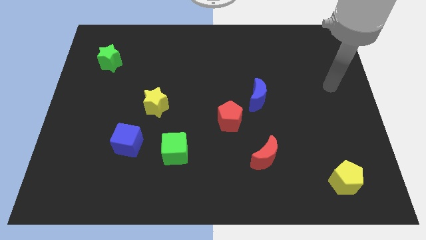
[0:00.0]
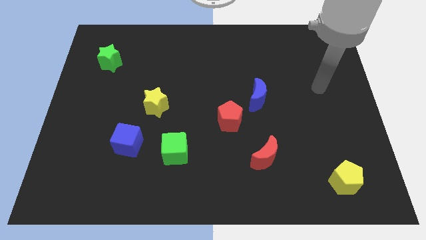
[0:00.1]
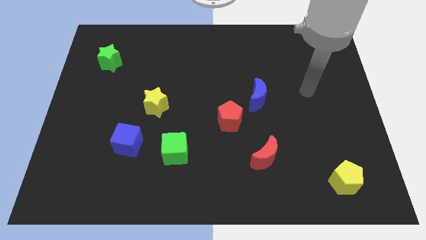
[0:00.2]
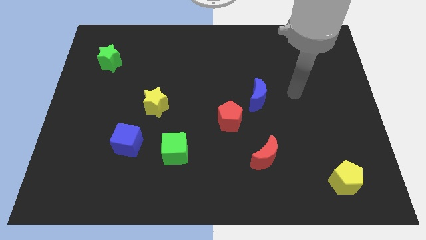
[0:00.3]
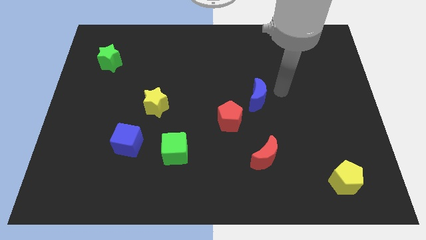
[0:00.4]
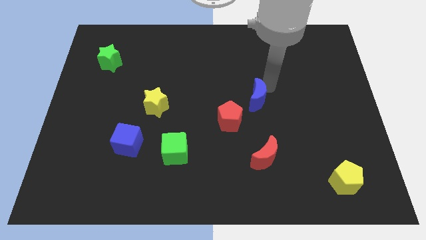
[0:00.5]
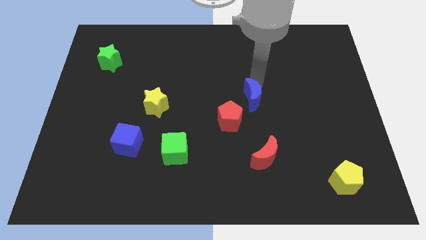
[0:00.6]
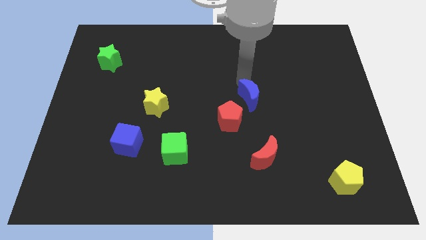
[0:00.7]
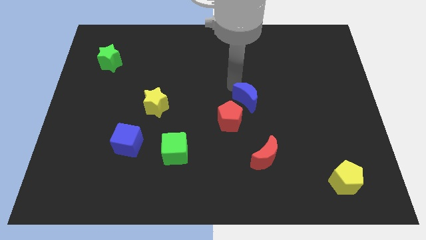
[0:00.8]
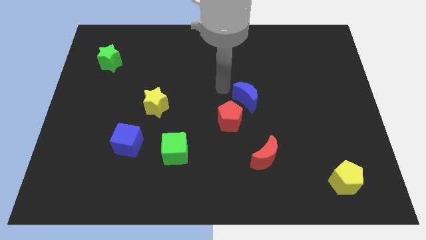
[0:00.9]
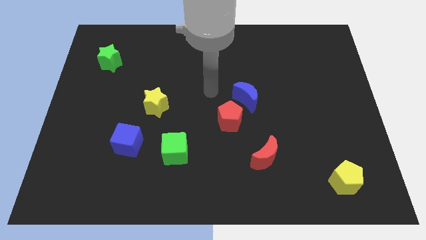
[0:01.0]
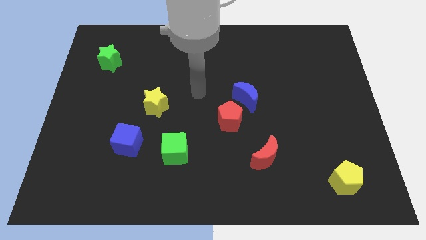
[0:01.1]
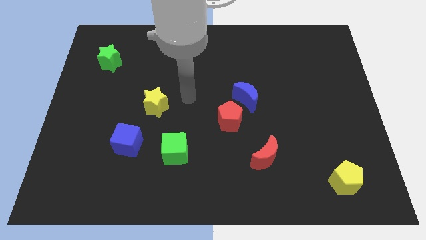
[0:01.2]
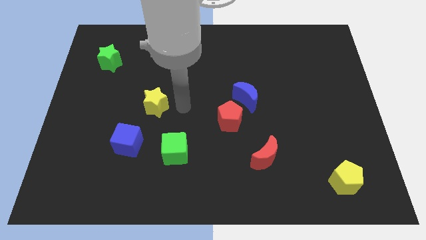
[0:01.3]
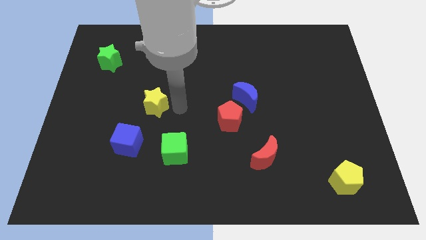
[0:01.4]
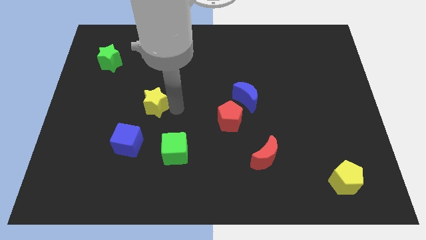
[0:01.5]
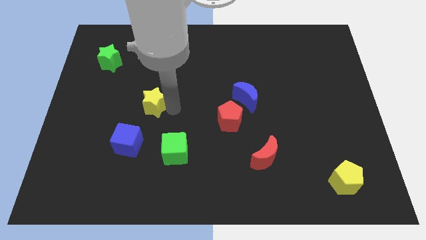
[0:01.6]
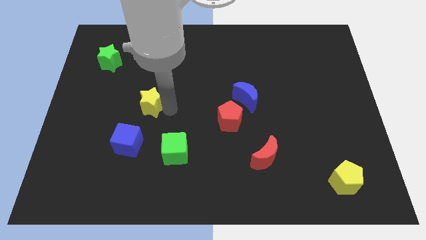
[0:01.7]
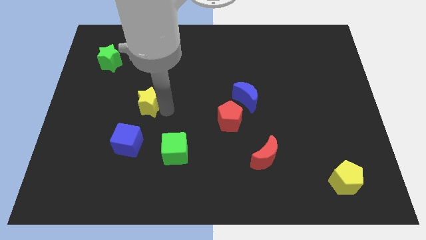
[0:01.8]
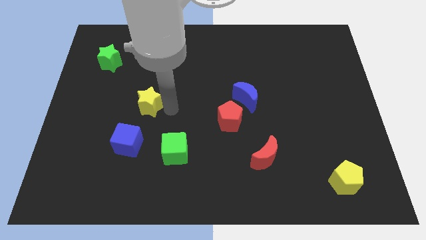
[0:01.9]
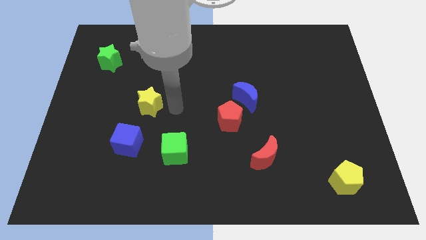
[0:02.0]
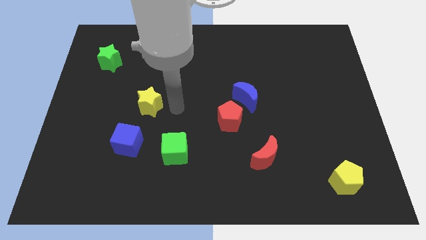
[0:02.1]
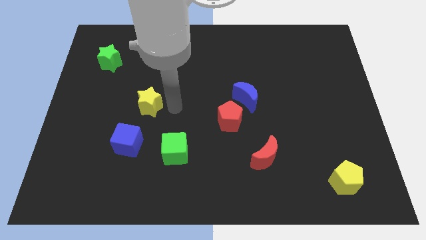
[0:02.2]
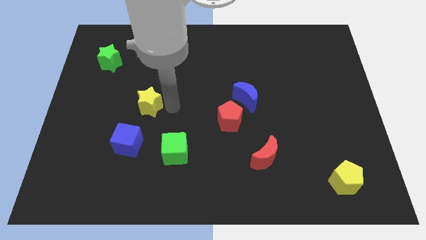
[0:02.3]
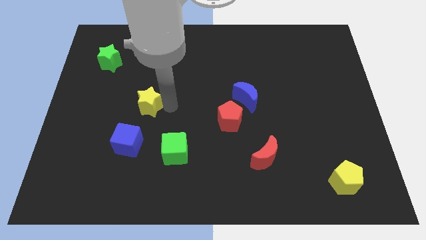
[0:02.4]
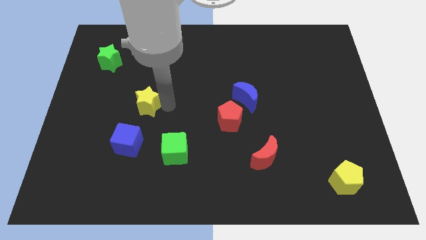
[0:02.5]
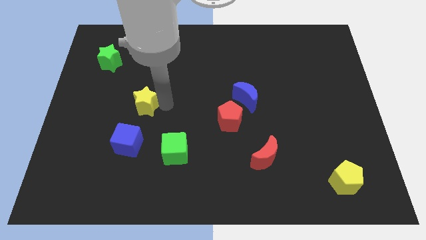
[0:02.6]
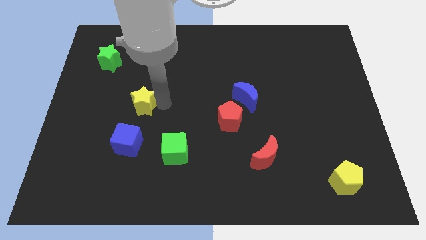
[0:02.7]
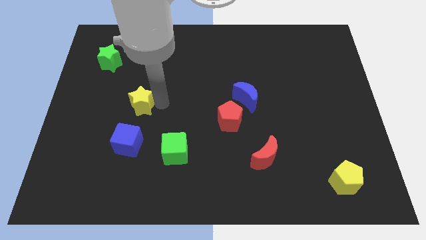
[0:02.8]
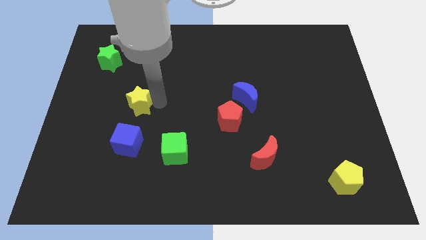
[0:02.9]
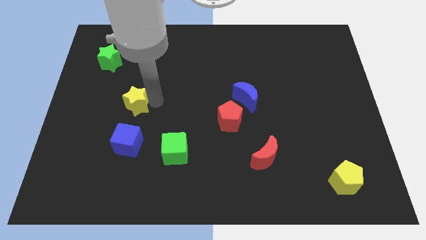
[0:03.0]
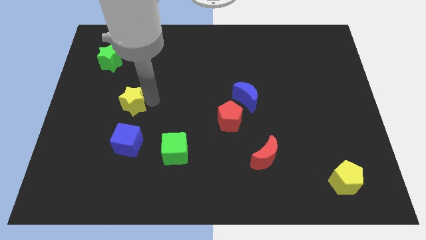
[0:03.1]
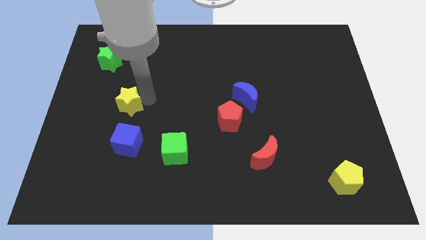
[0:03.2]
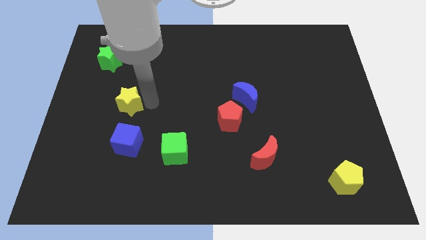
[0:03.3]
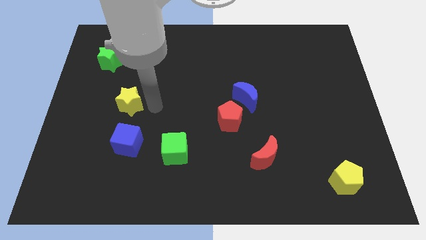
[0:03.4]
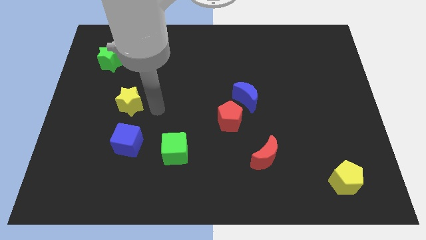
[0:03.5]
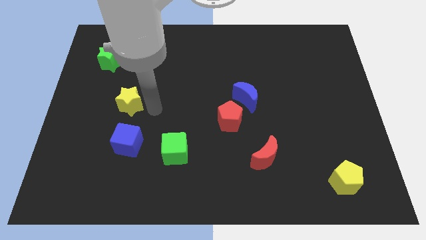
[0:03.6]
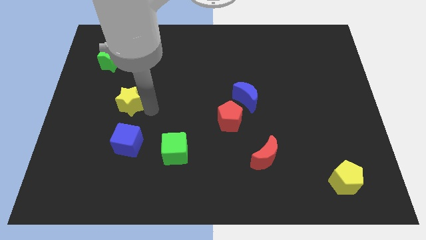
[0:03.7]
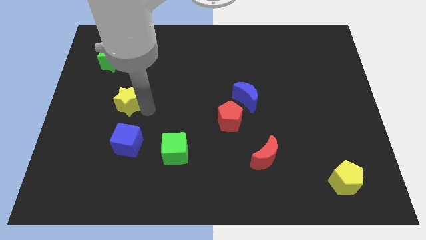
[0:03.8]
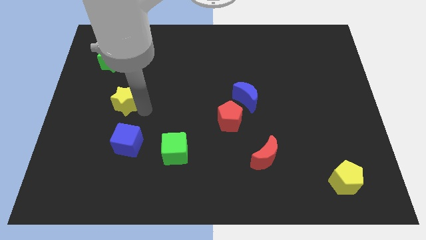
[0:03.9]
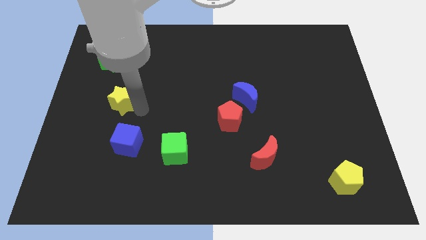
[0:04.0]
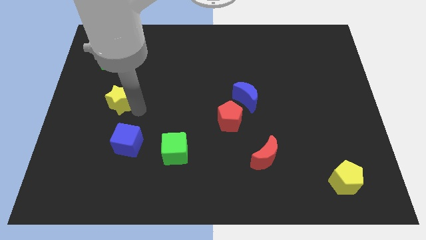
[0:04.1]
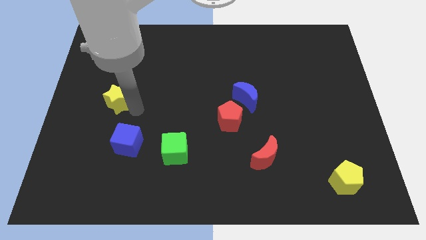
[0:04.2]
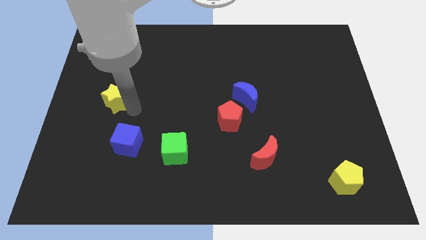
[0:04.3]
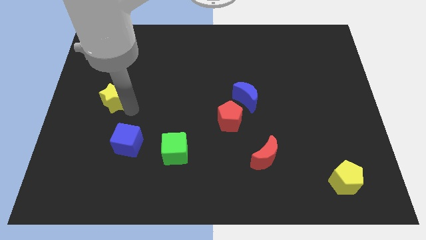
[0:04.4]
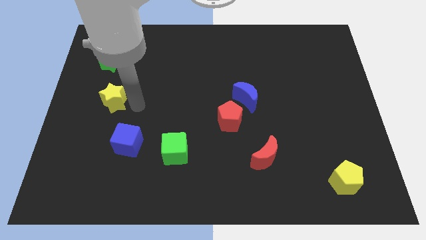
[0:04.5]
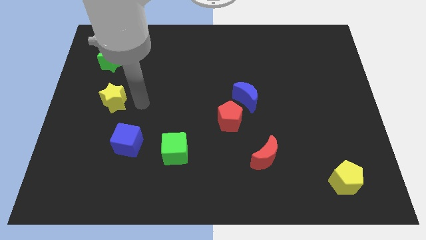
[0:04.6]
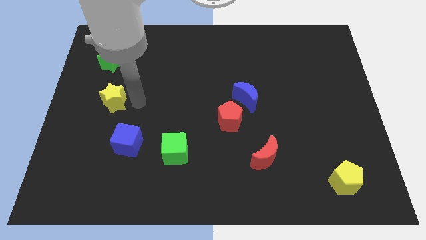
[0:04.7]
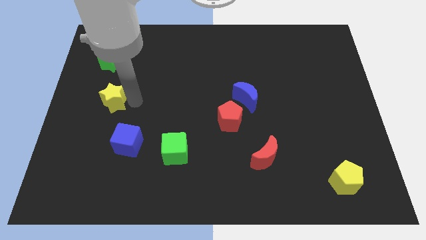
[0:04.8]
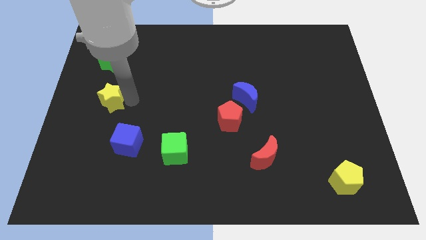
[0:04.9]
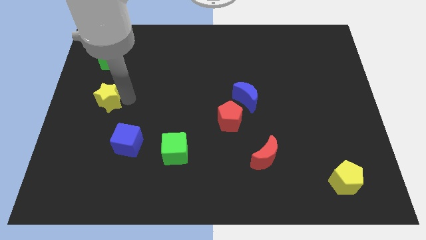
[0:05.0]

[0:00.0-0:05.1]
put the yellow star to the center left

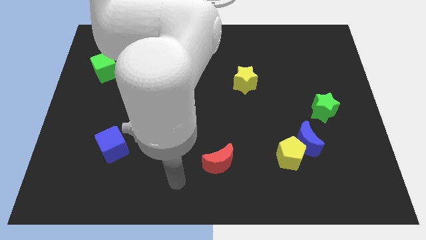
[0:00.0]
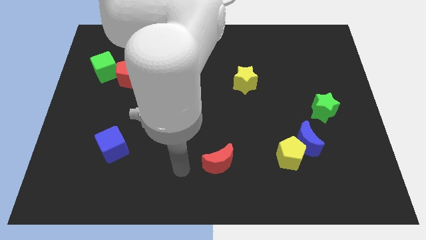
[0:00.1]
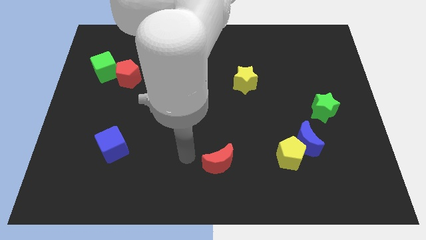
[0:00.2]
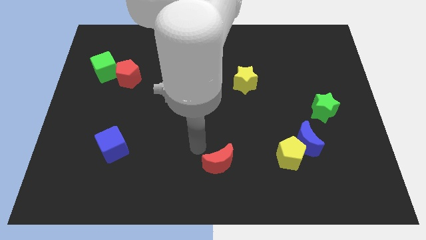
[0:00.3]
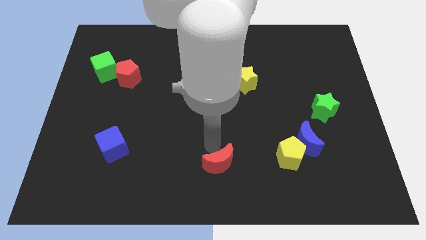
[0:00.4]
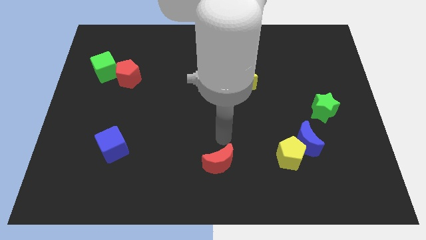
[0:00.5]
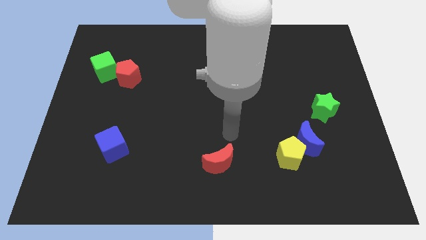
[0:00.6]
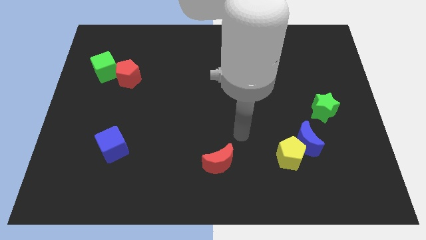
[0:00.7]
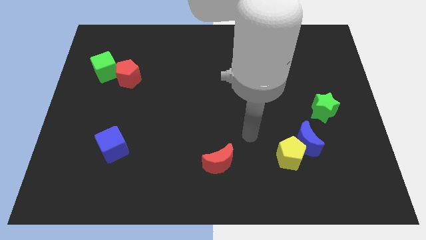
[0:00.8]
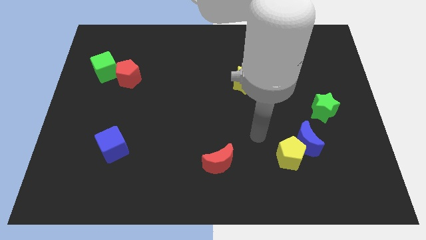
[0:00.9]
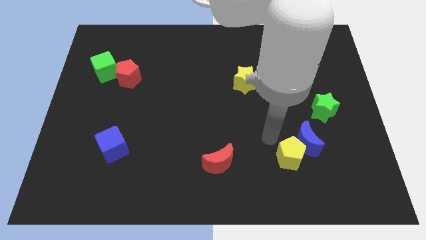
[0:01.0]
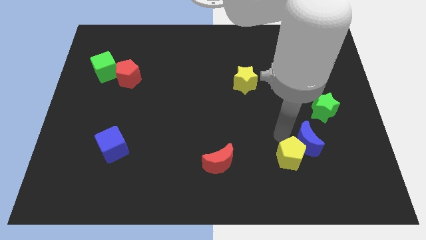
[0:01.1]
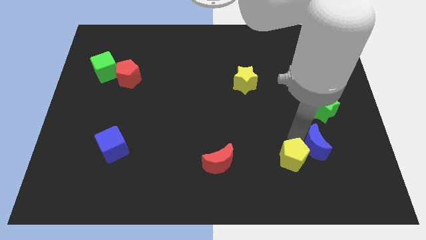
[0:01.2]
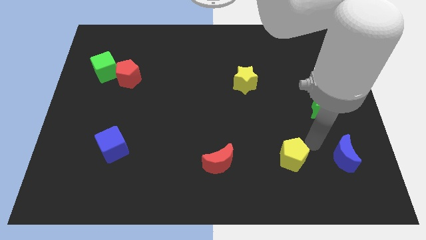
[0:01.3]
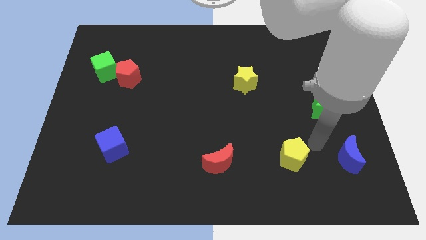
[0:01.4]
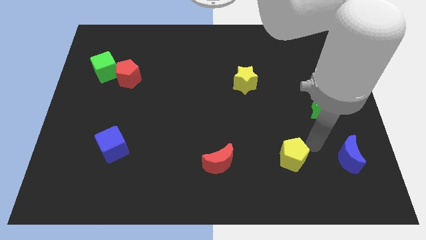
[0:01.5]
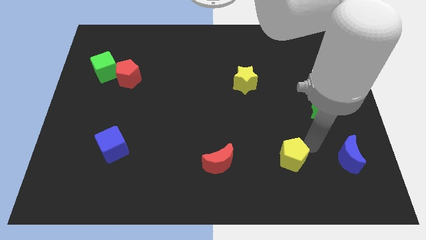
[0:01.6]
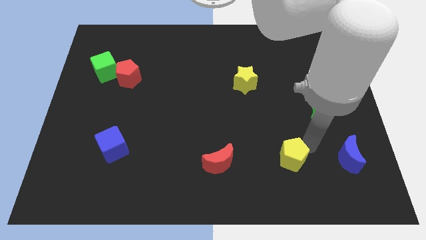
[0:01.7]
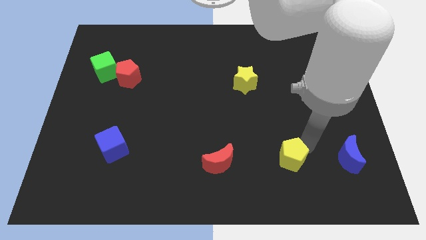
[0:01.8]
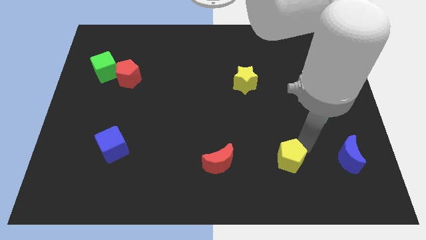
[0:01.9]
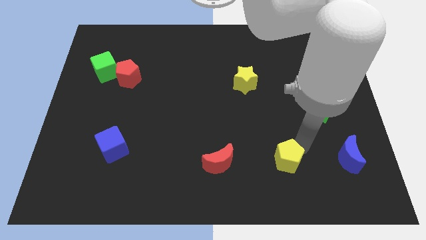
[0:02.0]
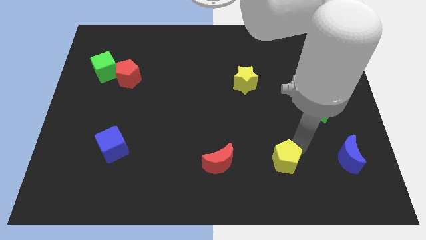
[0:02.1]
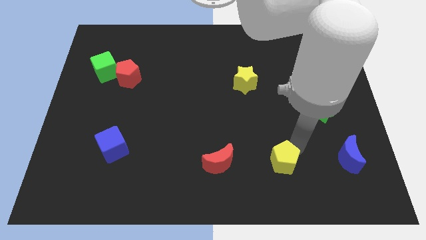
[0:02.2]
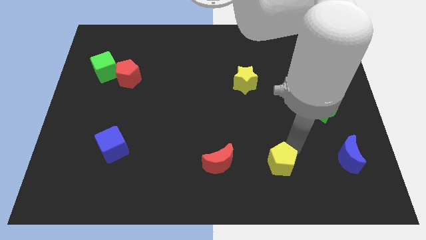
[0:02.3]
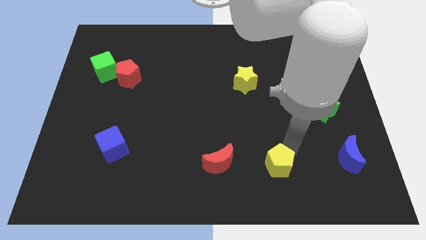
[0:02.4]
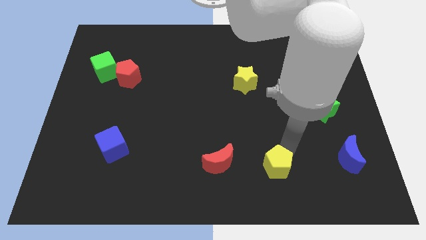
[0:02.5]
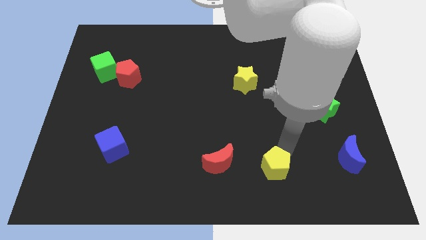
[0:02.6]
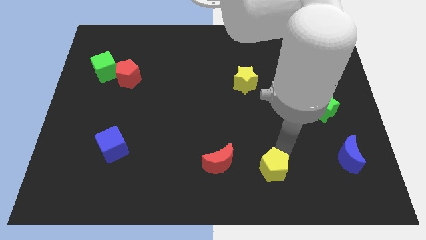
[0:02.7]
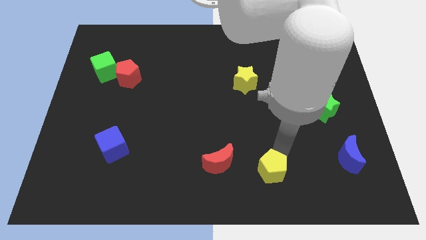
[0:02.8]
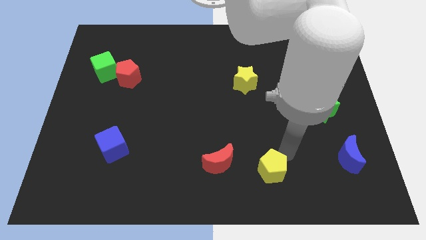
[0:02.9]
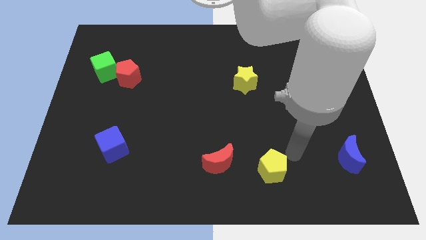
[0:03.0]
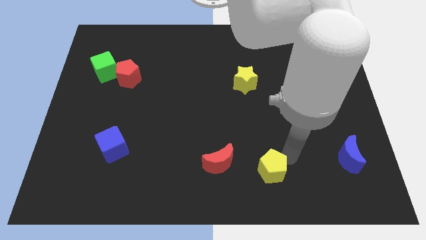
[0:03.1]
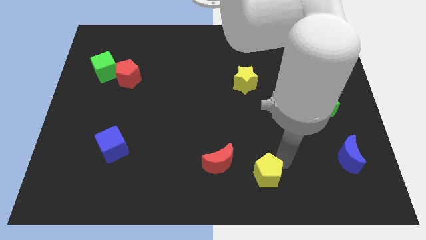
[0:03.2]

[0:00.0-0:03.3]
push the yellow pentagon to the bottom side
